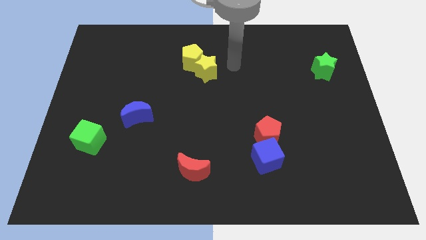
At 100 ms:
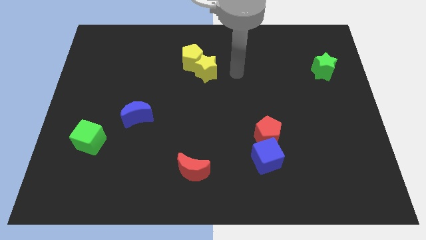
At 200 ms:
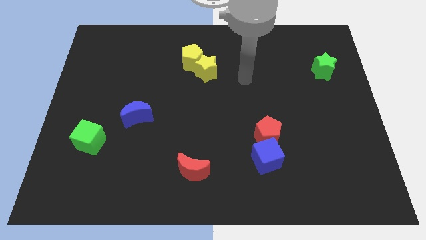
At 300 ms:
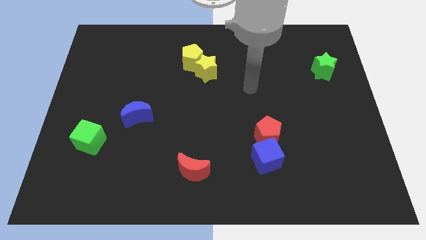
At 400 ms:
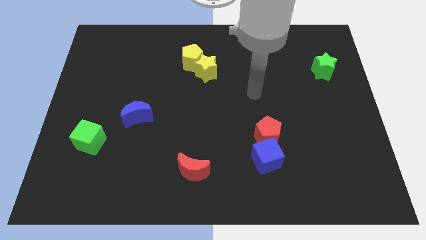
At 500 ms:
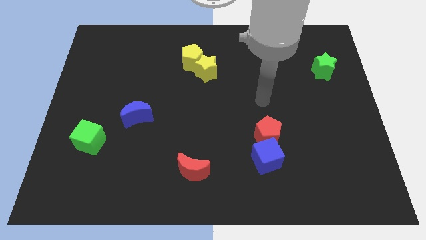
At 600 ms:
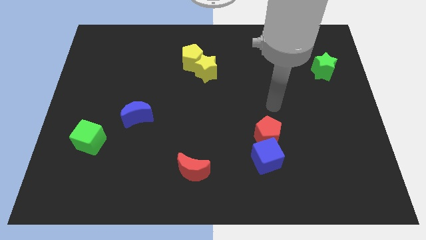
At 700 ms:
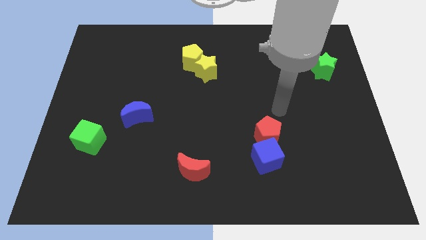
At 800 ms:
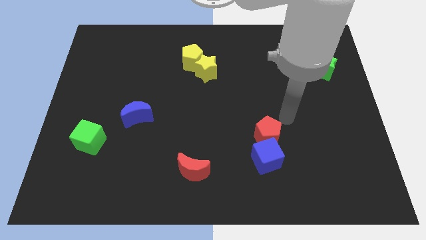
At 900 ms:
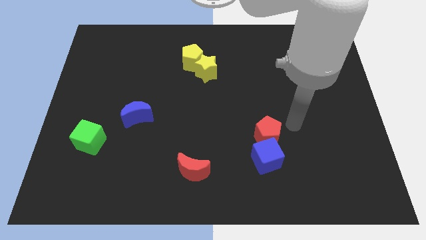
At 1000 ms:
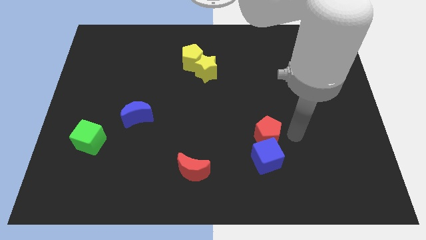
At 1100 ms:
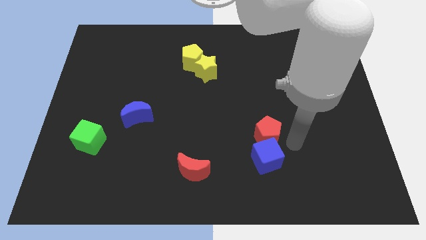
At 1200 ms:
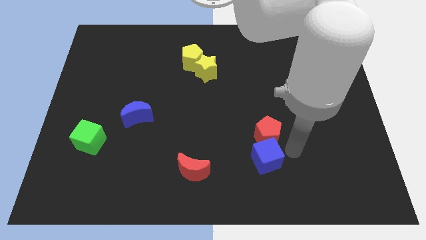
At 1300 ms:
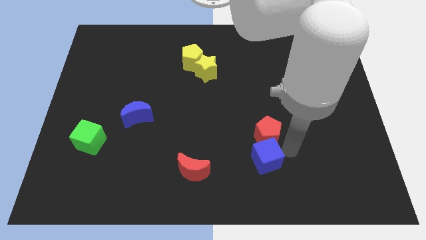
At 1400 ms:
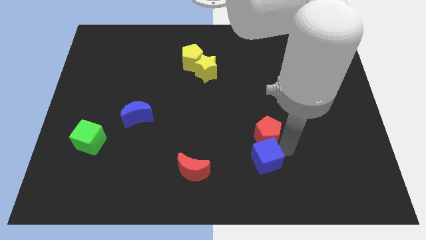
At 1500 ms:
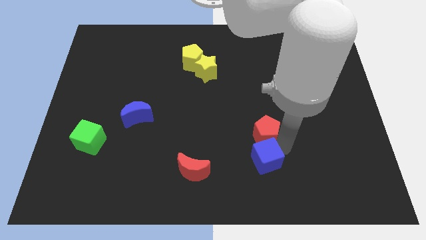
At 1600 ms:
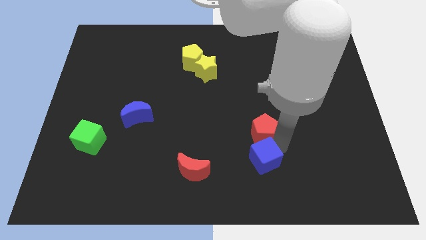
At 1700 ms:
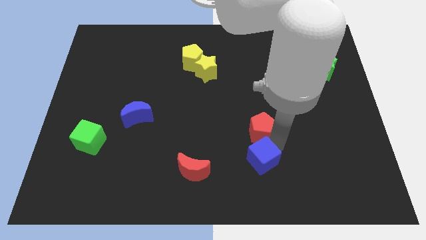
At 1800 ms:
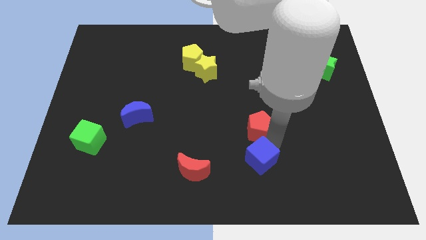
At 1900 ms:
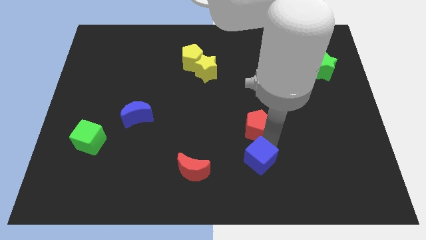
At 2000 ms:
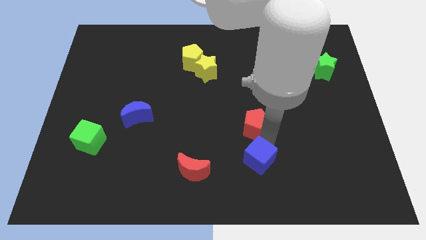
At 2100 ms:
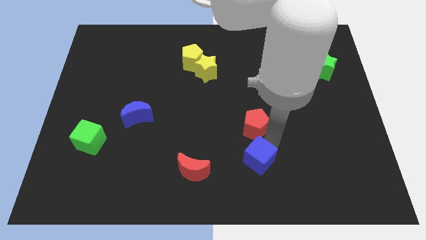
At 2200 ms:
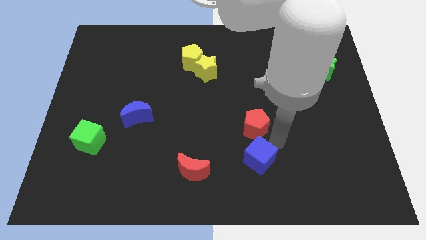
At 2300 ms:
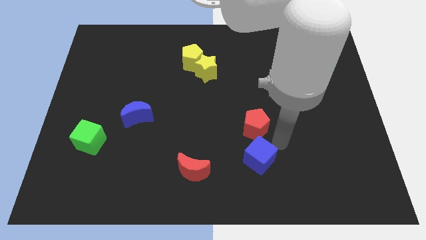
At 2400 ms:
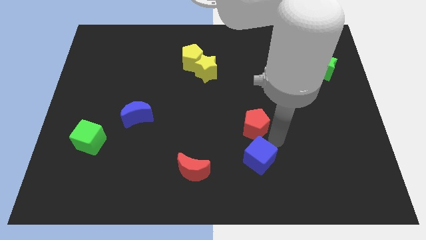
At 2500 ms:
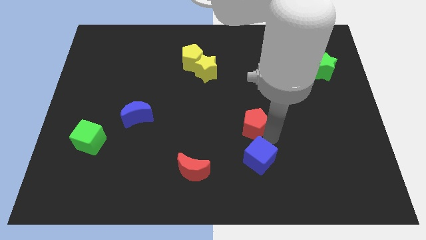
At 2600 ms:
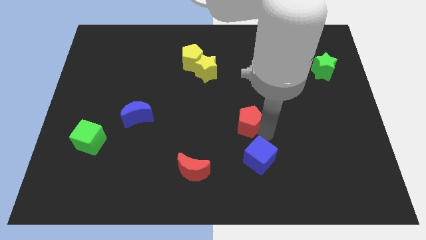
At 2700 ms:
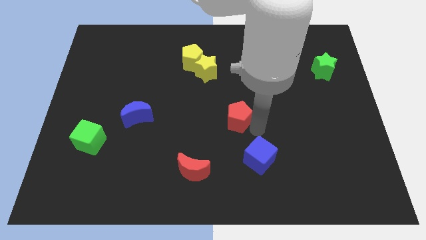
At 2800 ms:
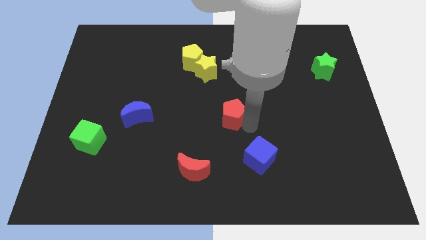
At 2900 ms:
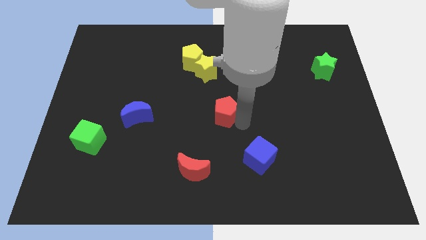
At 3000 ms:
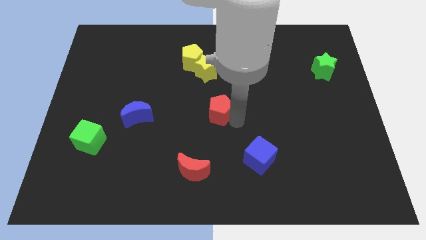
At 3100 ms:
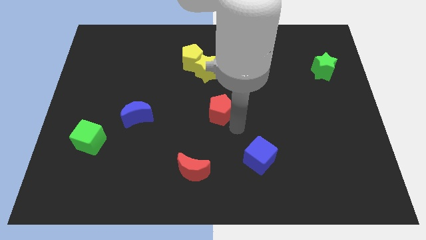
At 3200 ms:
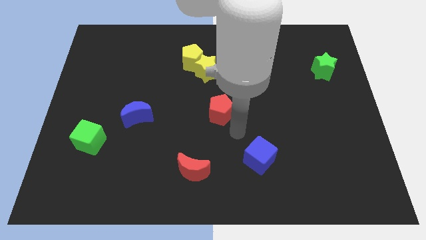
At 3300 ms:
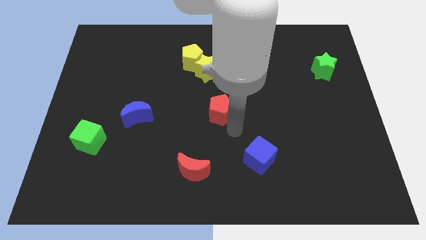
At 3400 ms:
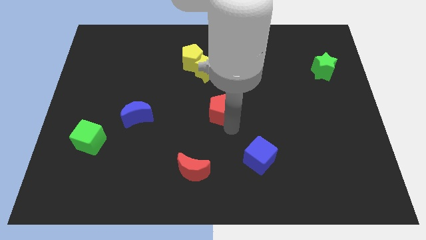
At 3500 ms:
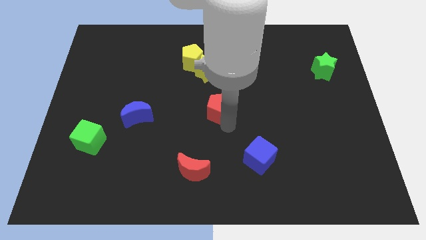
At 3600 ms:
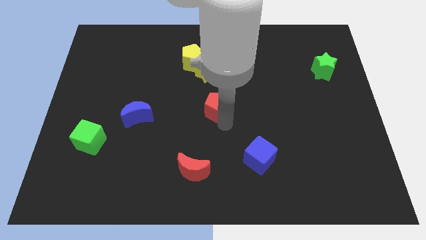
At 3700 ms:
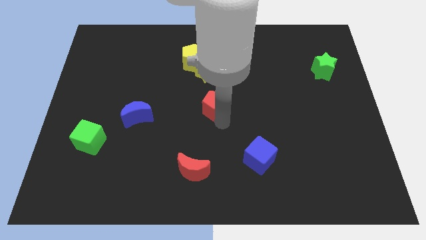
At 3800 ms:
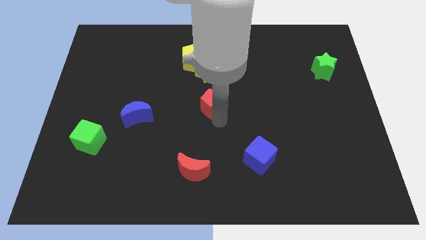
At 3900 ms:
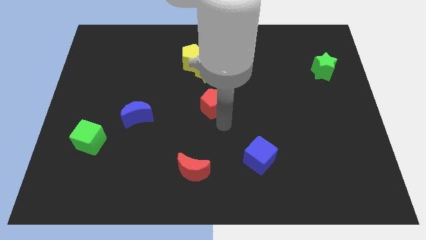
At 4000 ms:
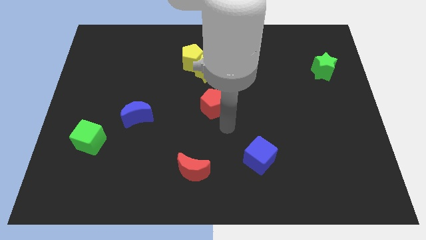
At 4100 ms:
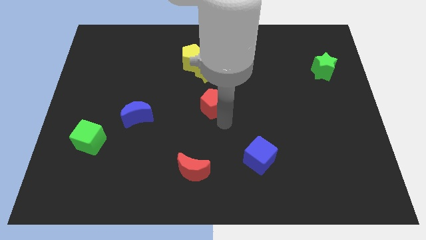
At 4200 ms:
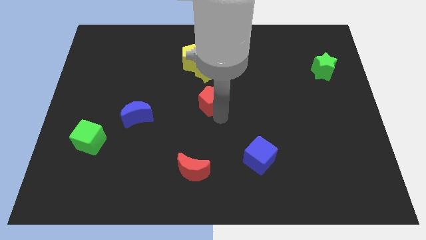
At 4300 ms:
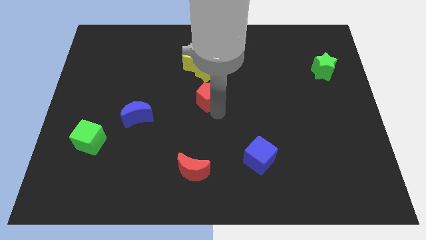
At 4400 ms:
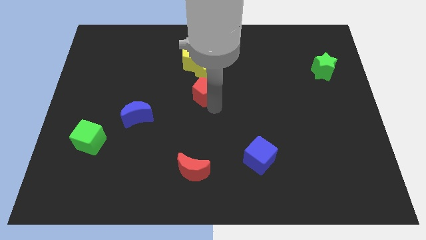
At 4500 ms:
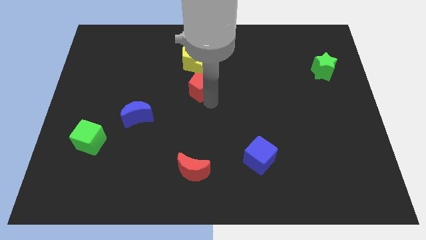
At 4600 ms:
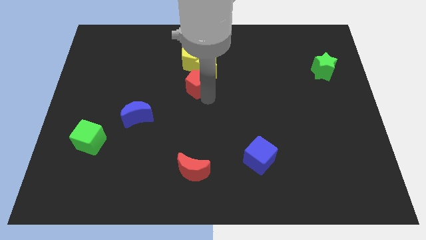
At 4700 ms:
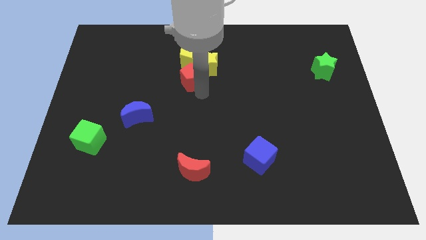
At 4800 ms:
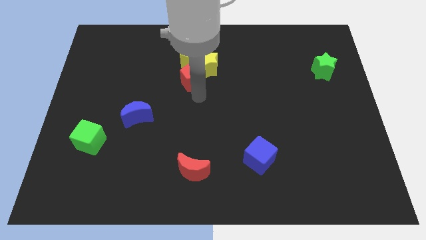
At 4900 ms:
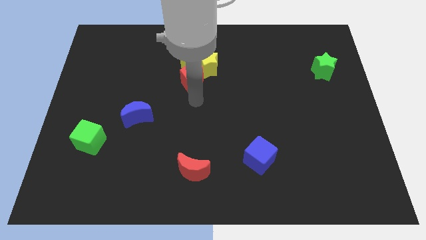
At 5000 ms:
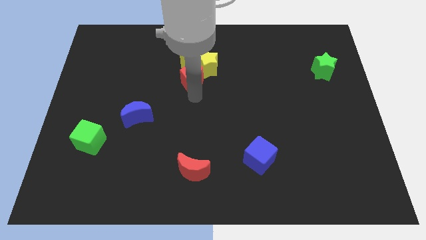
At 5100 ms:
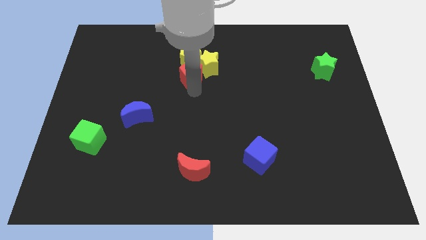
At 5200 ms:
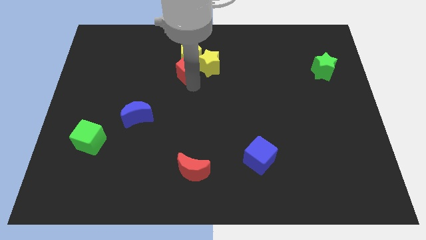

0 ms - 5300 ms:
put the red pentagon to the yellow pentagon

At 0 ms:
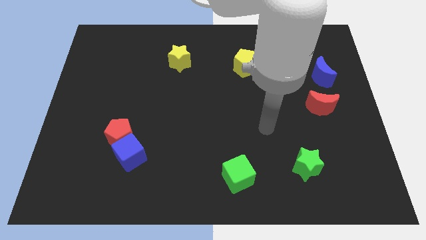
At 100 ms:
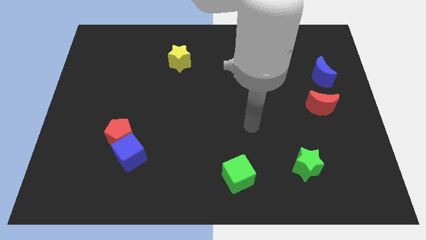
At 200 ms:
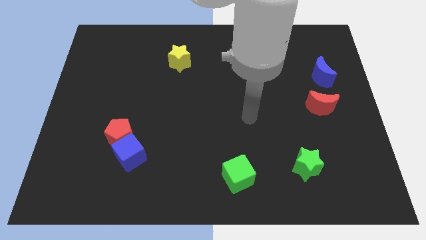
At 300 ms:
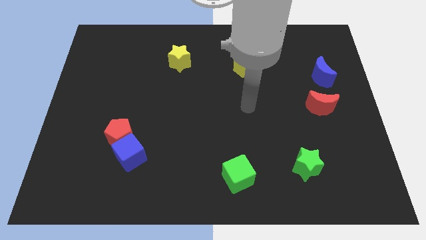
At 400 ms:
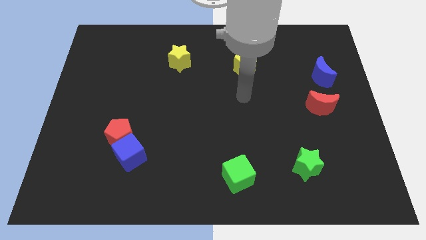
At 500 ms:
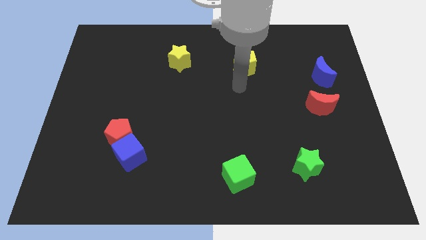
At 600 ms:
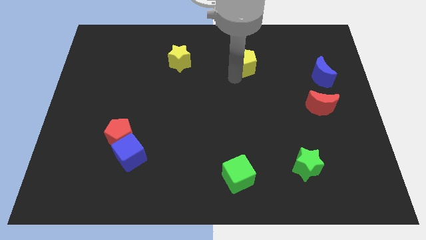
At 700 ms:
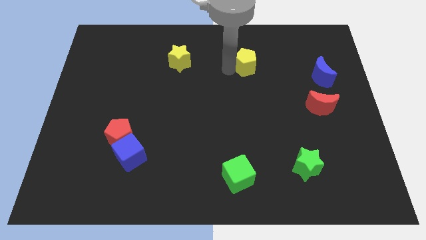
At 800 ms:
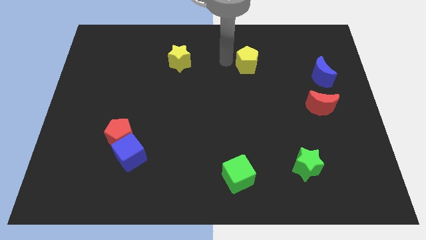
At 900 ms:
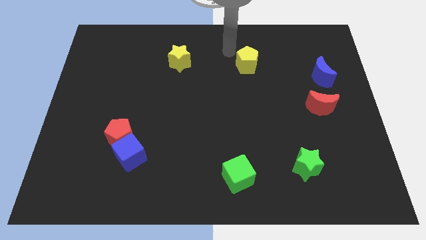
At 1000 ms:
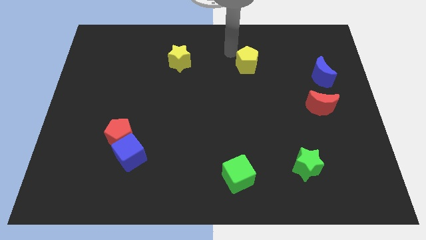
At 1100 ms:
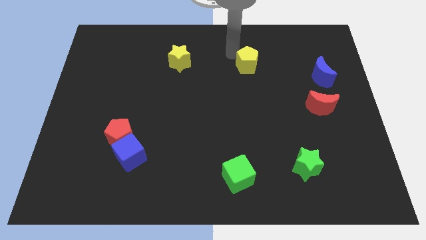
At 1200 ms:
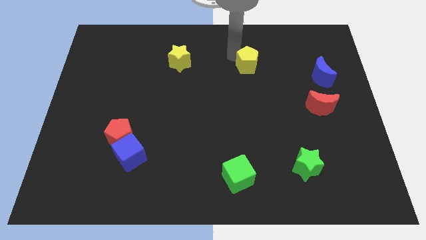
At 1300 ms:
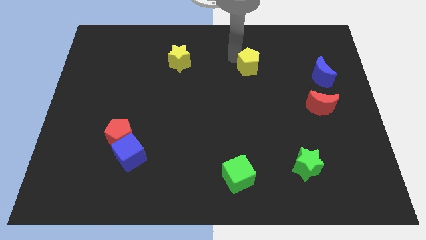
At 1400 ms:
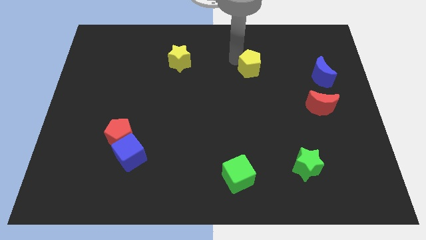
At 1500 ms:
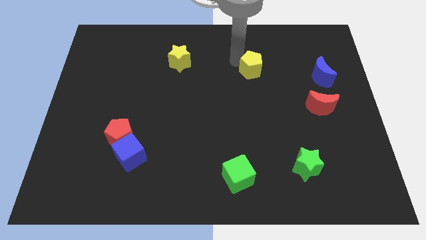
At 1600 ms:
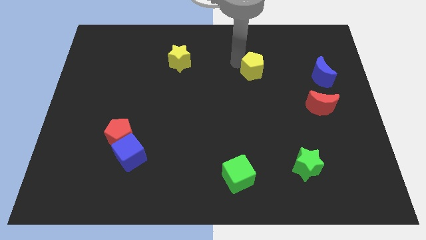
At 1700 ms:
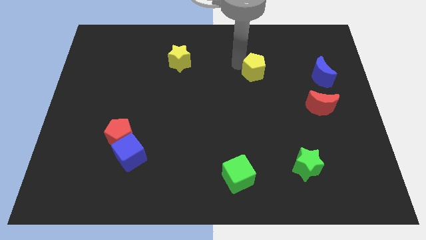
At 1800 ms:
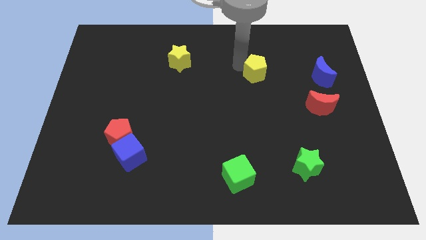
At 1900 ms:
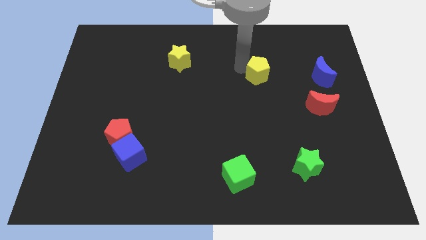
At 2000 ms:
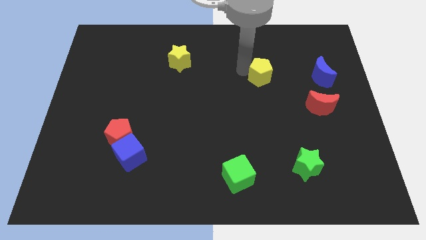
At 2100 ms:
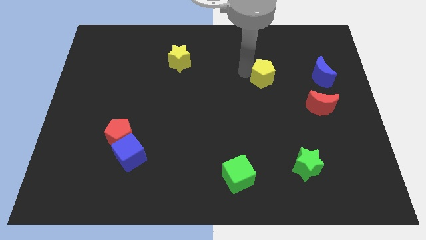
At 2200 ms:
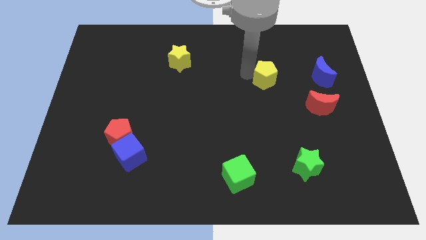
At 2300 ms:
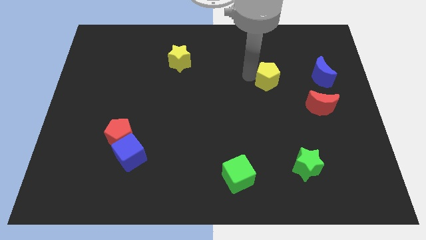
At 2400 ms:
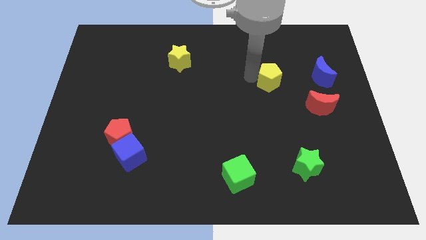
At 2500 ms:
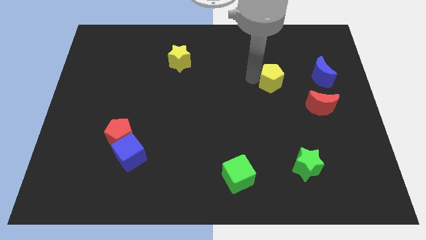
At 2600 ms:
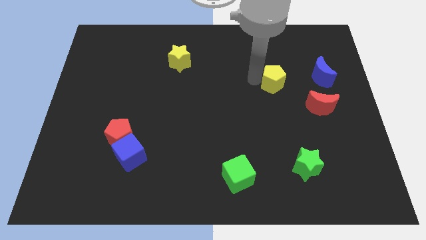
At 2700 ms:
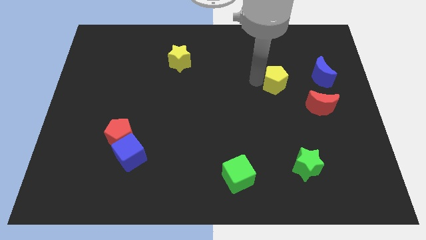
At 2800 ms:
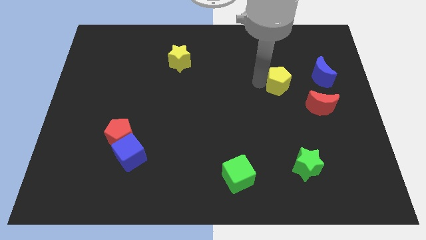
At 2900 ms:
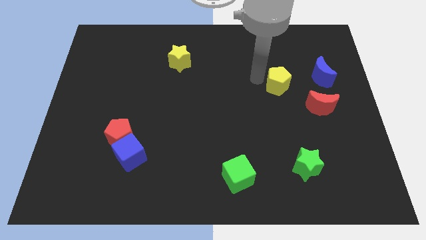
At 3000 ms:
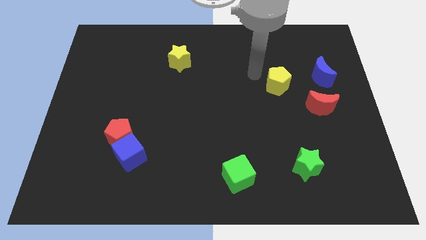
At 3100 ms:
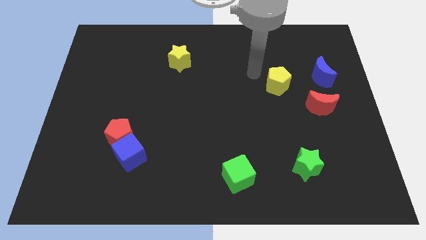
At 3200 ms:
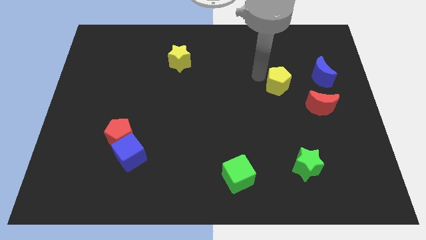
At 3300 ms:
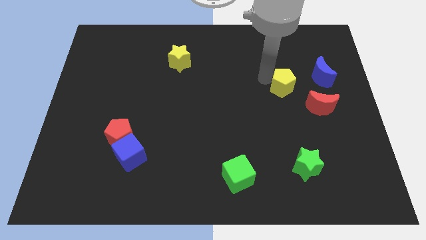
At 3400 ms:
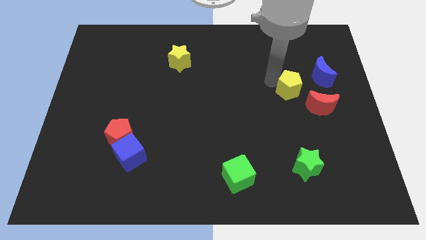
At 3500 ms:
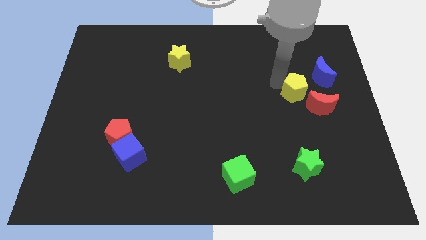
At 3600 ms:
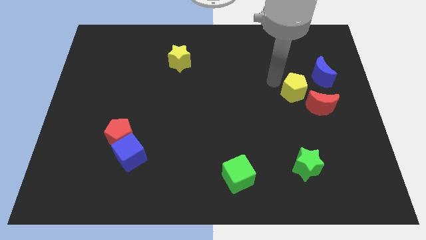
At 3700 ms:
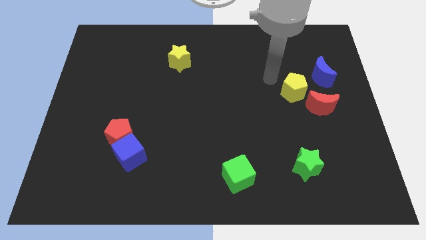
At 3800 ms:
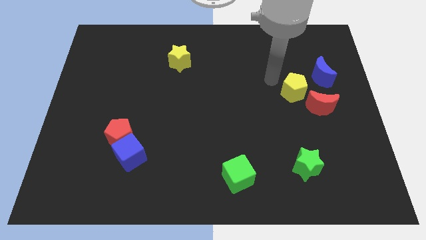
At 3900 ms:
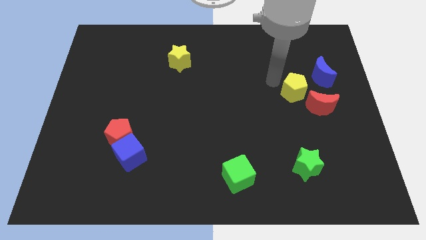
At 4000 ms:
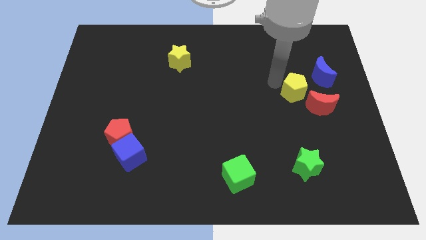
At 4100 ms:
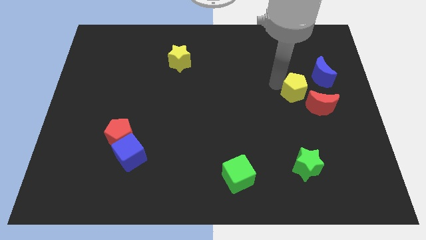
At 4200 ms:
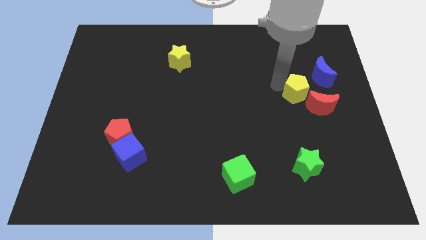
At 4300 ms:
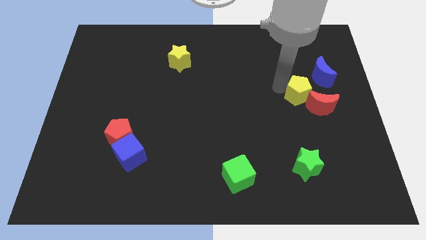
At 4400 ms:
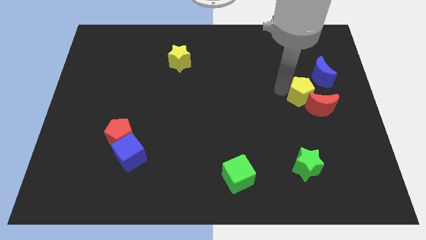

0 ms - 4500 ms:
put the yellow pentagon close to the red moon
